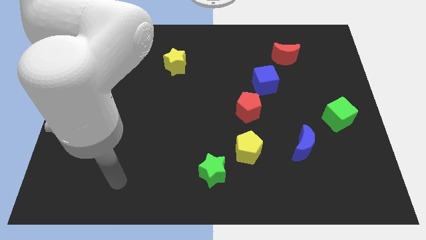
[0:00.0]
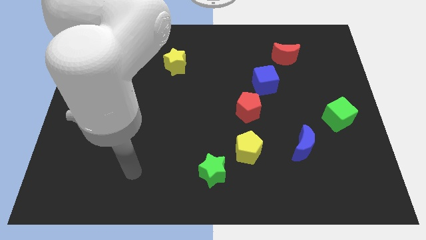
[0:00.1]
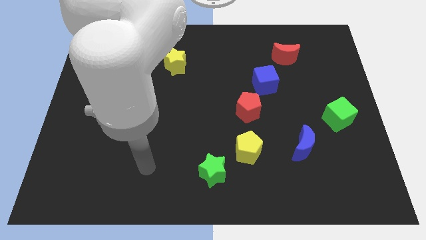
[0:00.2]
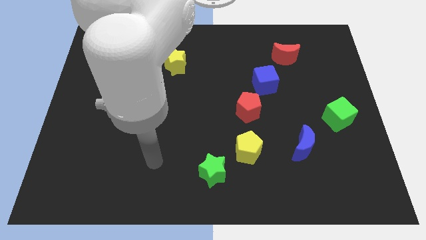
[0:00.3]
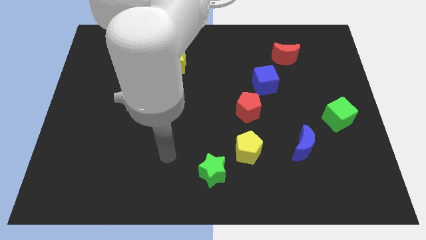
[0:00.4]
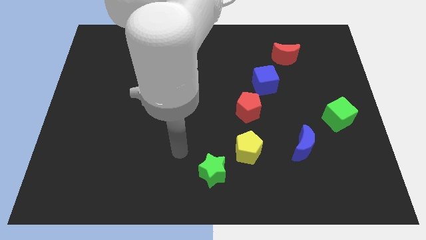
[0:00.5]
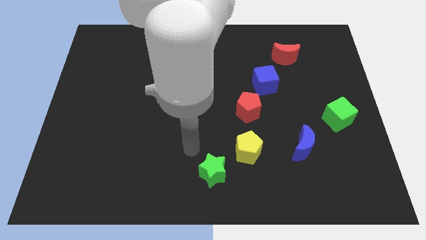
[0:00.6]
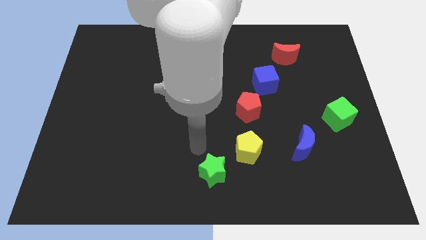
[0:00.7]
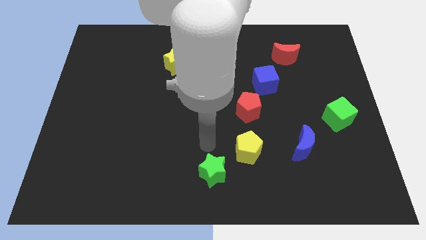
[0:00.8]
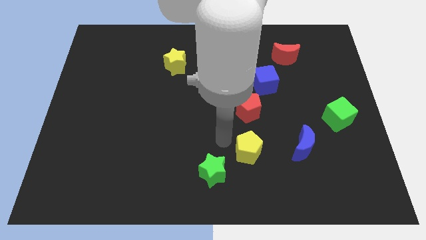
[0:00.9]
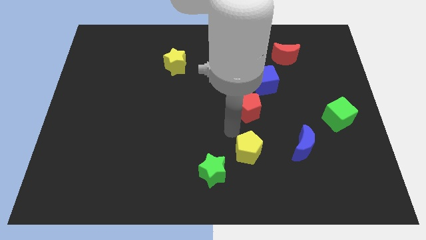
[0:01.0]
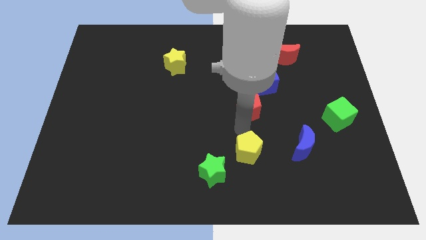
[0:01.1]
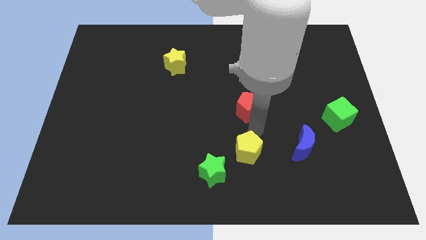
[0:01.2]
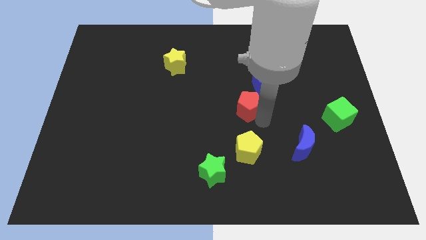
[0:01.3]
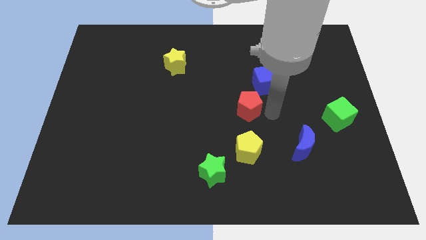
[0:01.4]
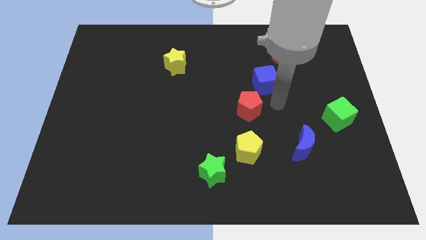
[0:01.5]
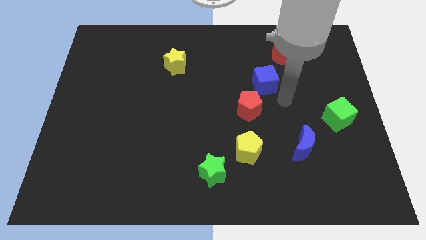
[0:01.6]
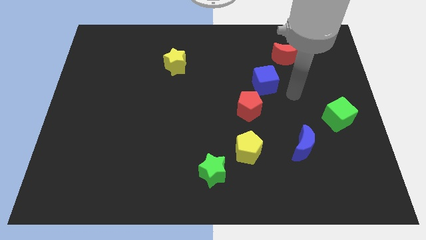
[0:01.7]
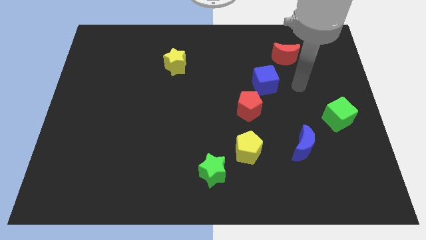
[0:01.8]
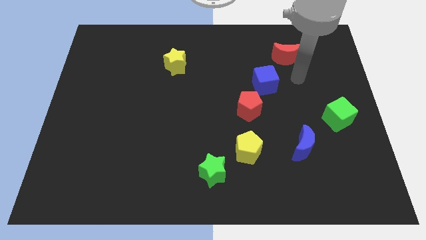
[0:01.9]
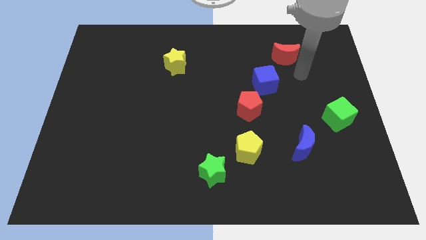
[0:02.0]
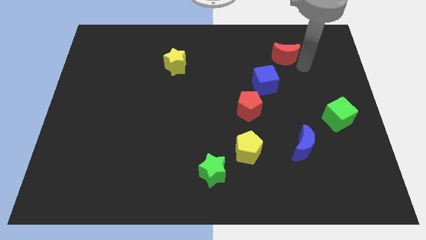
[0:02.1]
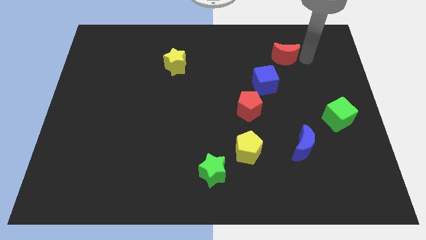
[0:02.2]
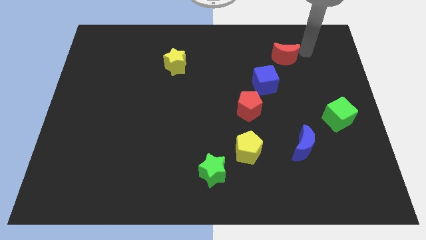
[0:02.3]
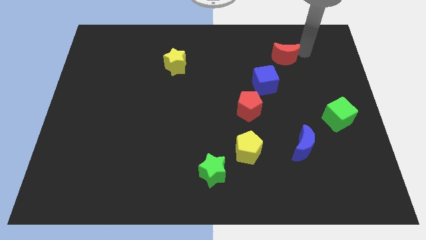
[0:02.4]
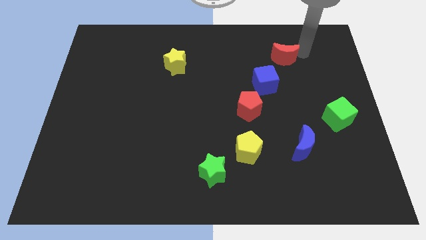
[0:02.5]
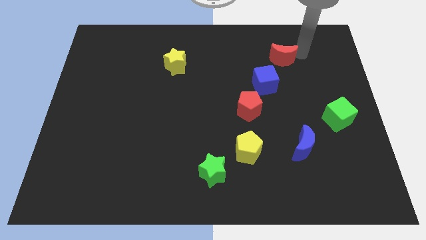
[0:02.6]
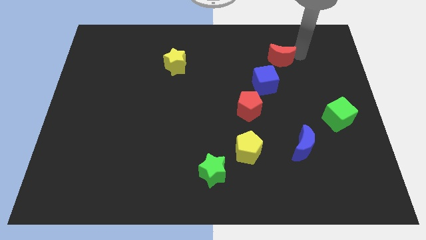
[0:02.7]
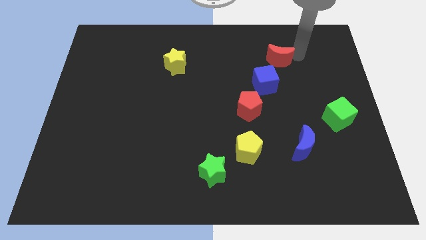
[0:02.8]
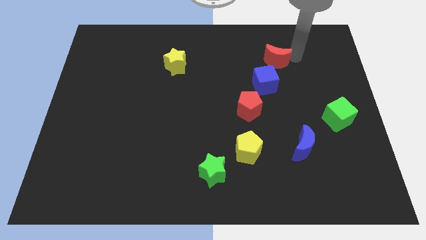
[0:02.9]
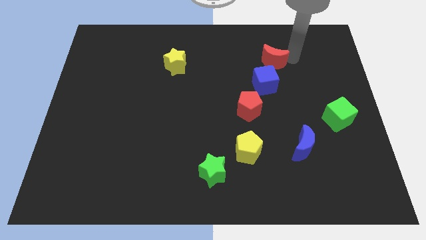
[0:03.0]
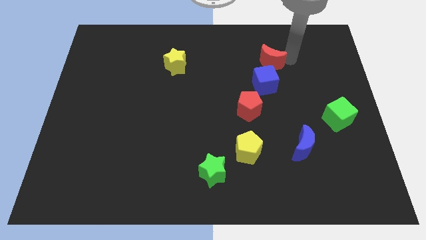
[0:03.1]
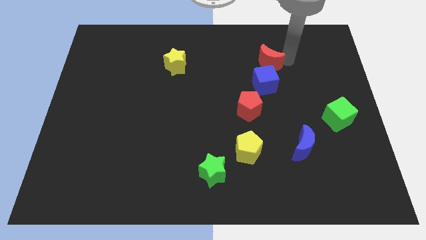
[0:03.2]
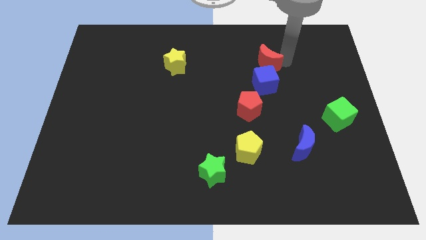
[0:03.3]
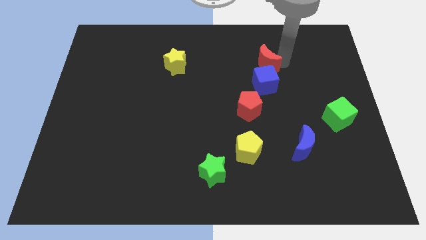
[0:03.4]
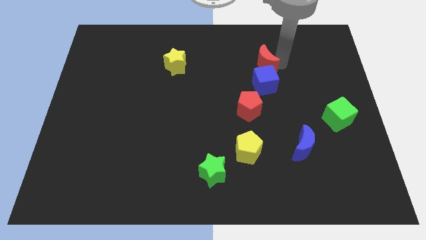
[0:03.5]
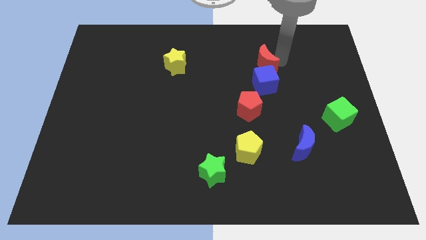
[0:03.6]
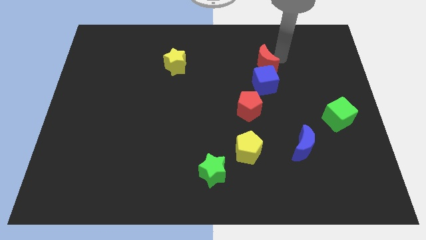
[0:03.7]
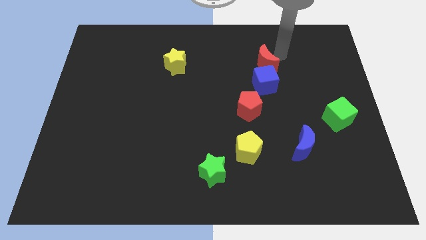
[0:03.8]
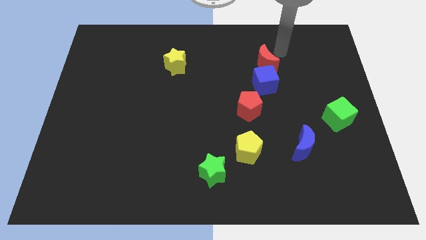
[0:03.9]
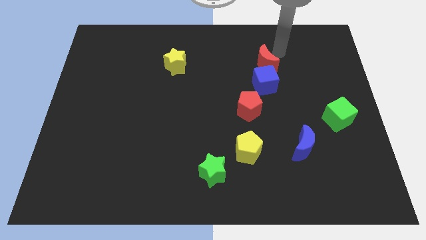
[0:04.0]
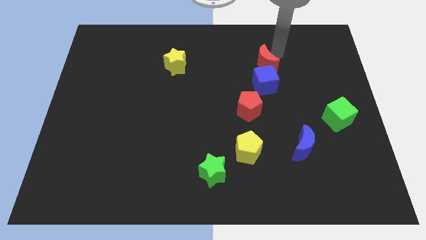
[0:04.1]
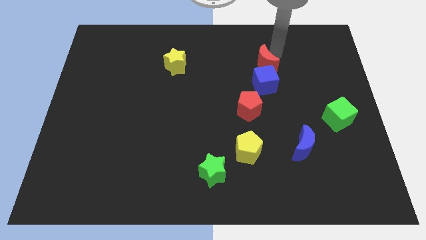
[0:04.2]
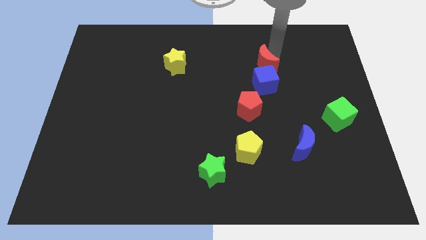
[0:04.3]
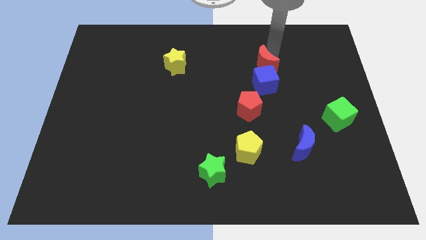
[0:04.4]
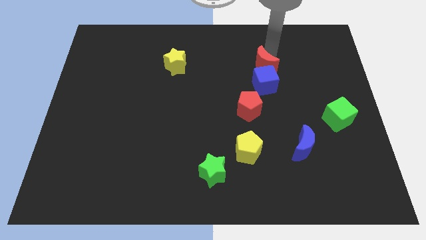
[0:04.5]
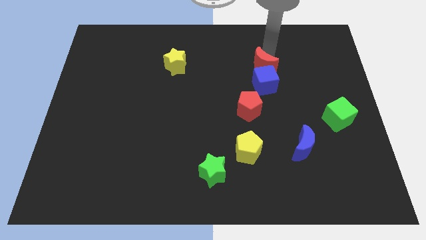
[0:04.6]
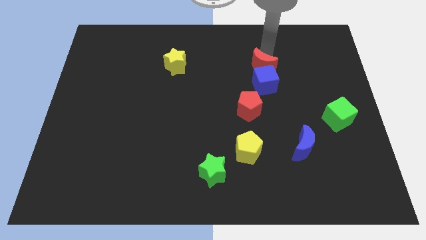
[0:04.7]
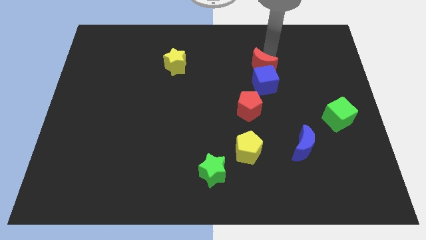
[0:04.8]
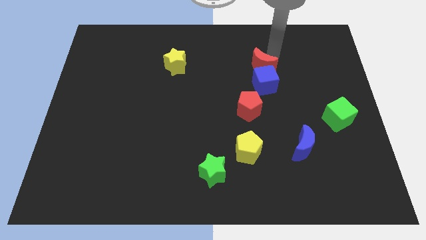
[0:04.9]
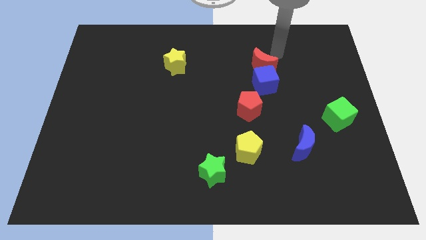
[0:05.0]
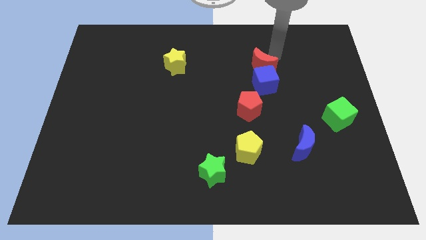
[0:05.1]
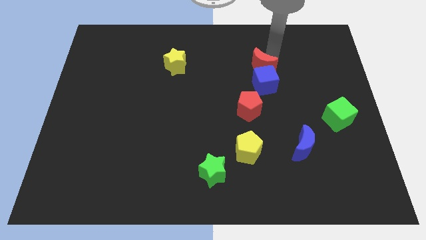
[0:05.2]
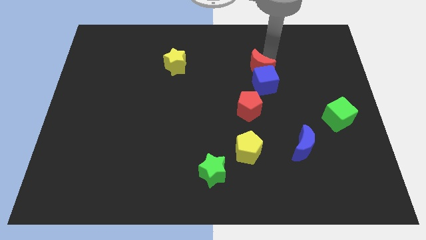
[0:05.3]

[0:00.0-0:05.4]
push the red moon somewhat diagonally downwards and to the left

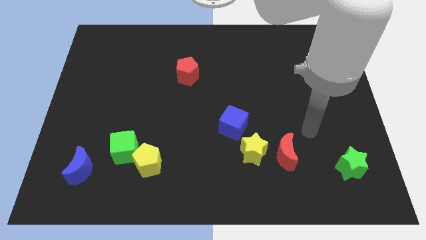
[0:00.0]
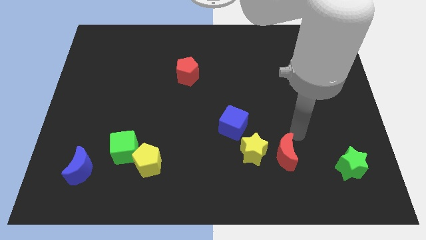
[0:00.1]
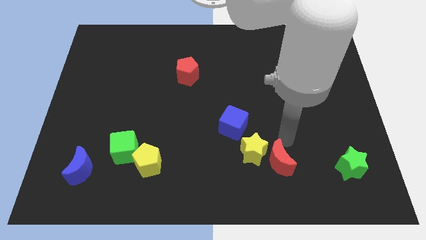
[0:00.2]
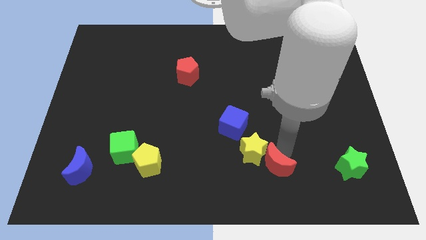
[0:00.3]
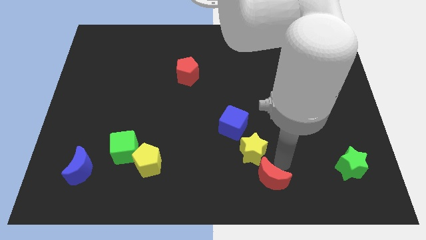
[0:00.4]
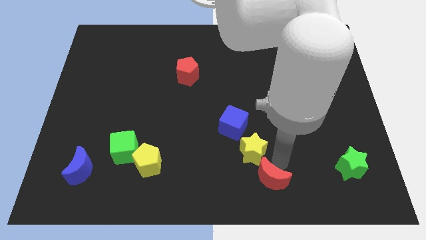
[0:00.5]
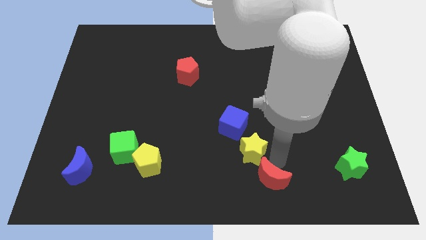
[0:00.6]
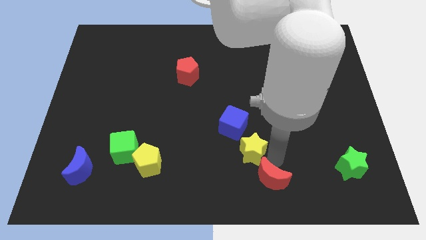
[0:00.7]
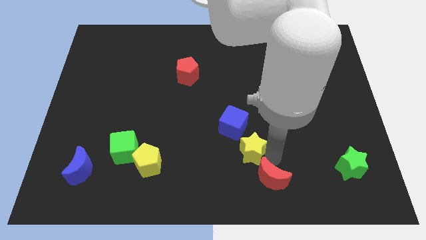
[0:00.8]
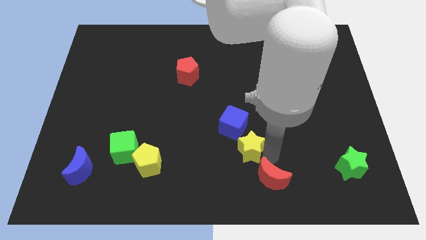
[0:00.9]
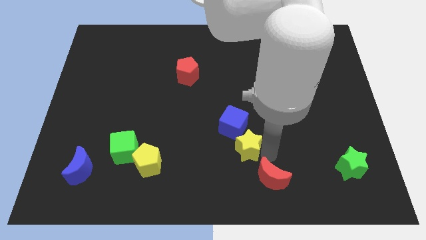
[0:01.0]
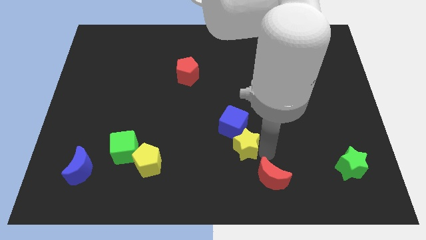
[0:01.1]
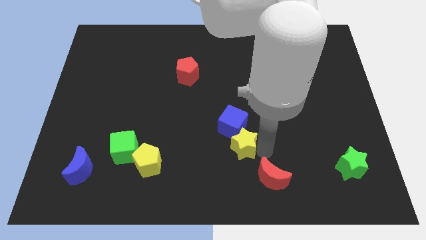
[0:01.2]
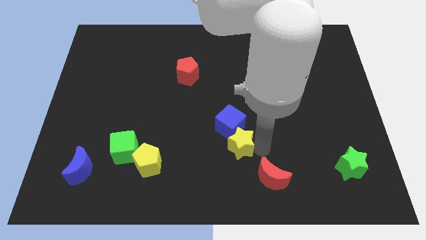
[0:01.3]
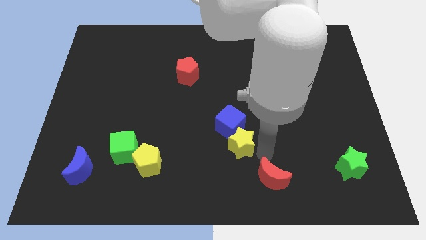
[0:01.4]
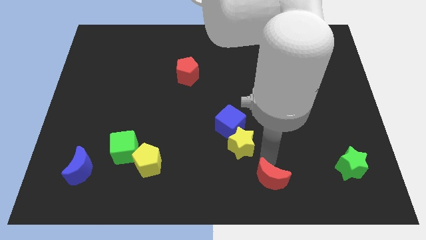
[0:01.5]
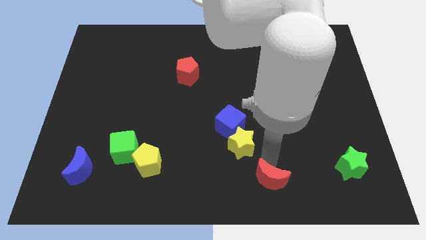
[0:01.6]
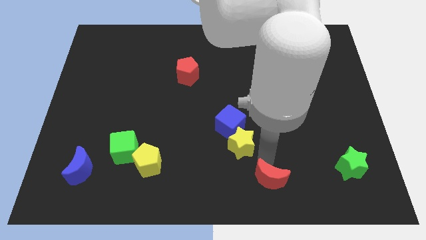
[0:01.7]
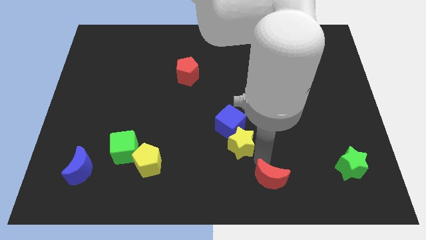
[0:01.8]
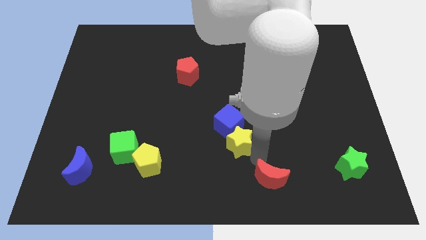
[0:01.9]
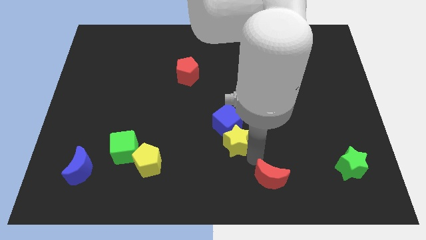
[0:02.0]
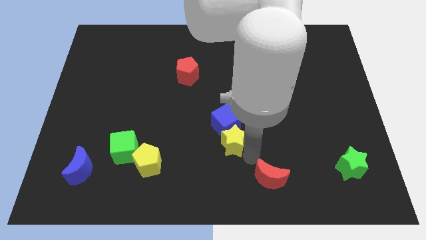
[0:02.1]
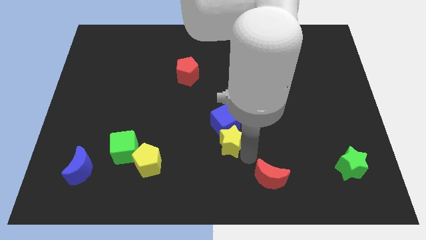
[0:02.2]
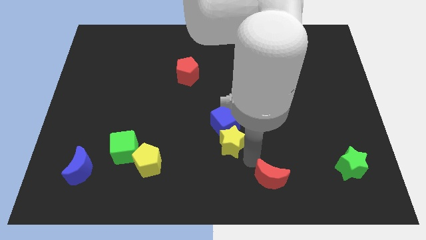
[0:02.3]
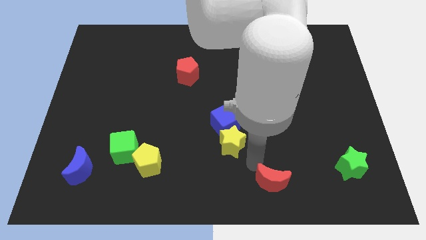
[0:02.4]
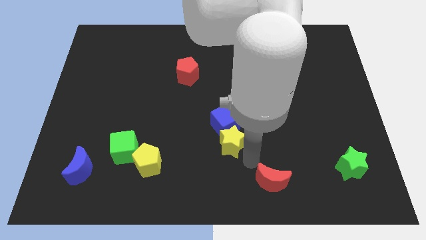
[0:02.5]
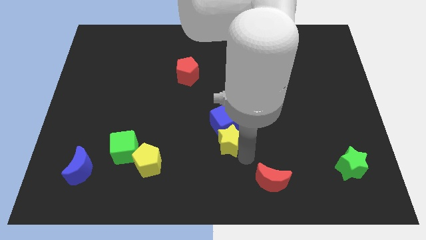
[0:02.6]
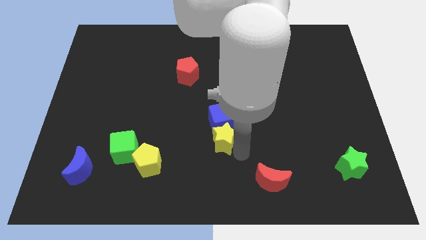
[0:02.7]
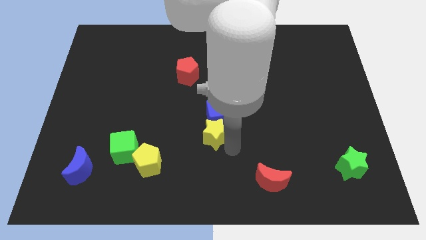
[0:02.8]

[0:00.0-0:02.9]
slide the yellow star a little upwards and then to the left

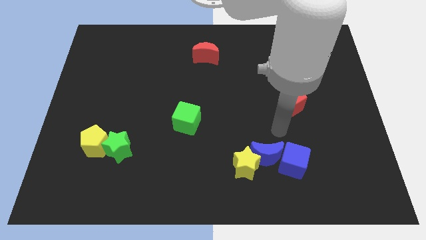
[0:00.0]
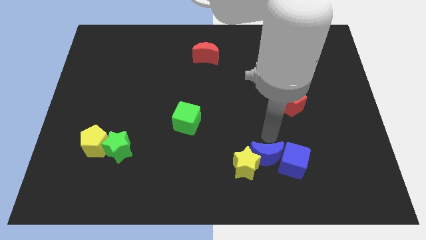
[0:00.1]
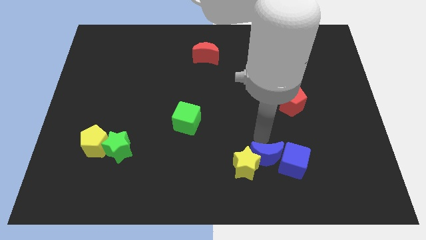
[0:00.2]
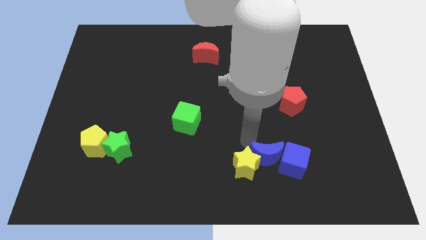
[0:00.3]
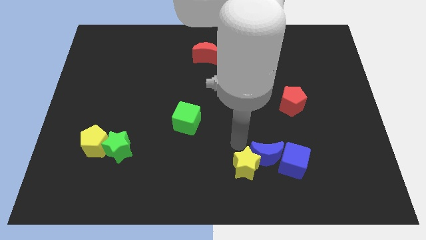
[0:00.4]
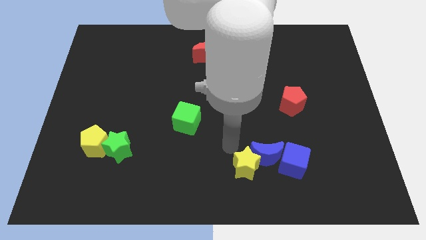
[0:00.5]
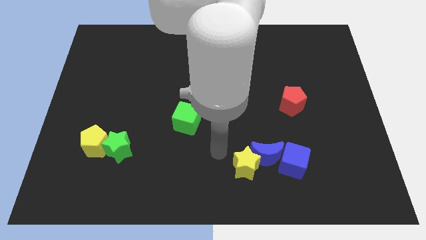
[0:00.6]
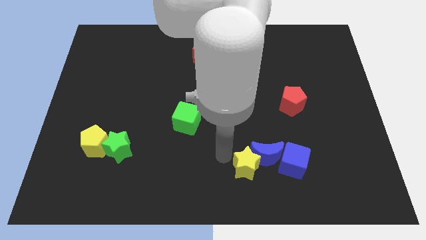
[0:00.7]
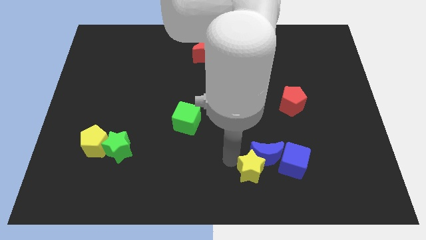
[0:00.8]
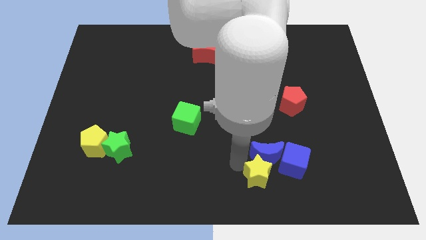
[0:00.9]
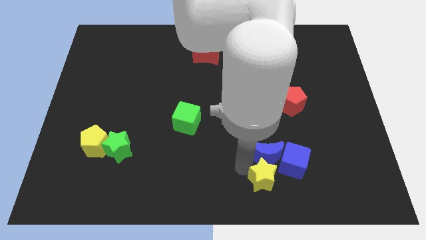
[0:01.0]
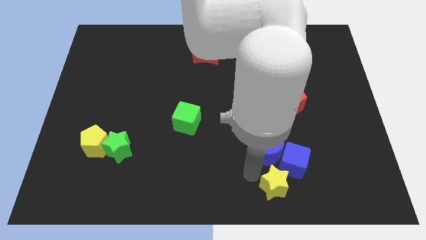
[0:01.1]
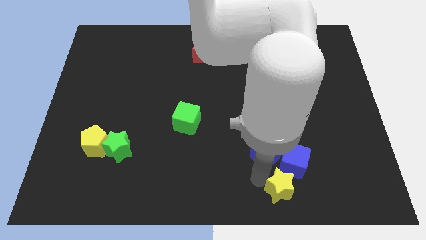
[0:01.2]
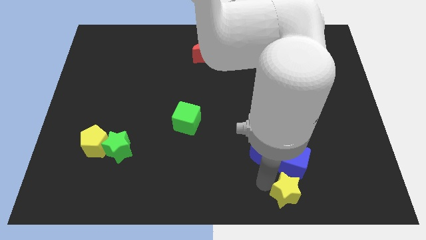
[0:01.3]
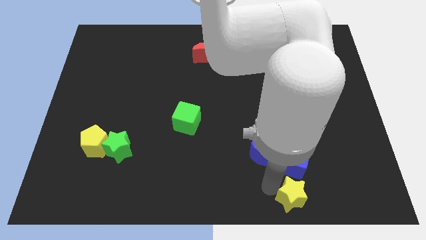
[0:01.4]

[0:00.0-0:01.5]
slide the yellow star right a bit
